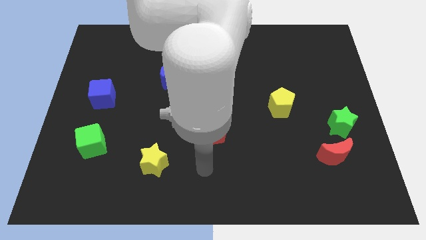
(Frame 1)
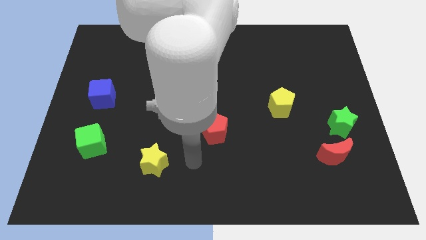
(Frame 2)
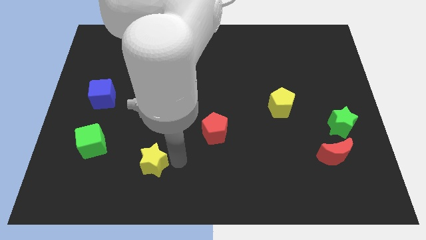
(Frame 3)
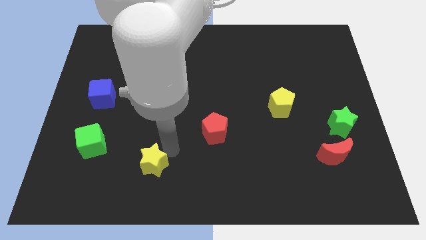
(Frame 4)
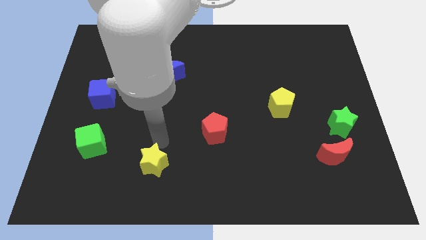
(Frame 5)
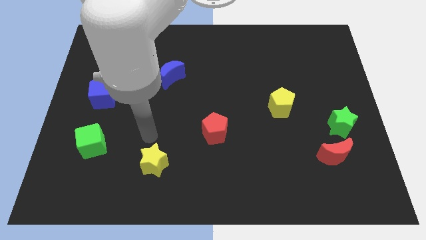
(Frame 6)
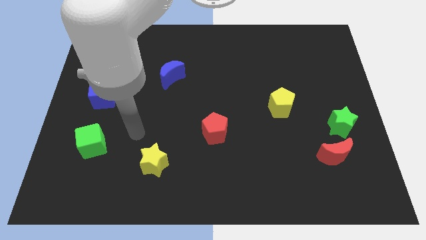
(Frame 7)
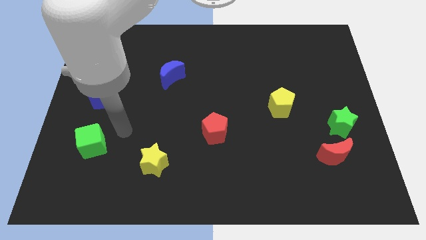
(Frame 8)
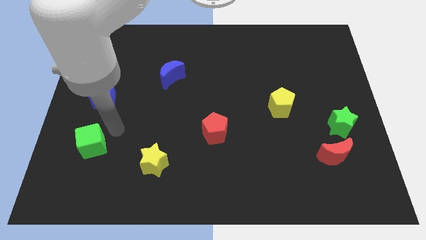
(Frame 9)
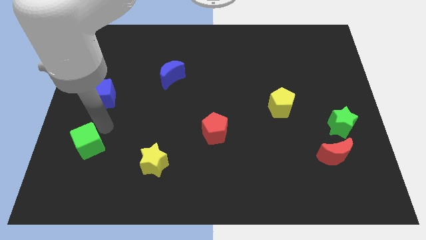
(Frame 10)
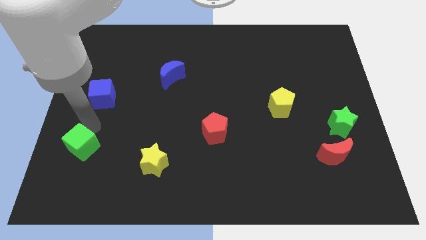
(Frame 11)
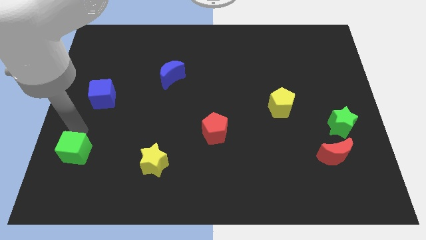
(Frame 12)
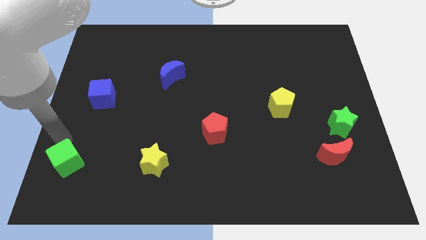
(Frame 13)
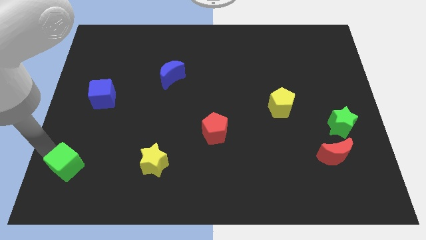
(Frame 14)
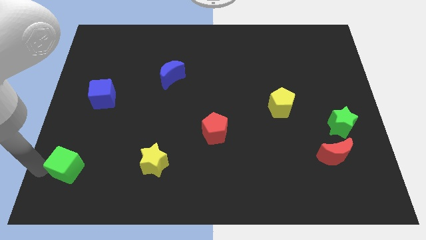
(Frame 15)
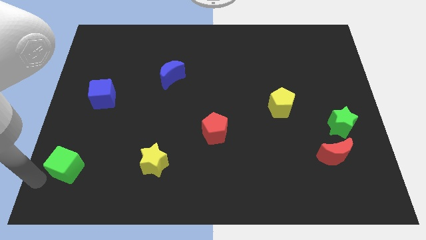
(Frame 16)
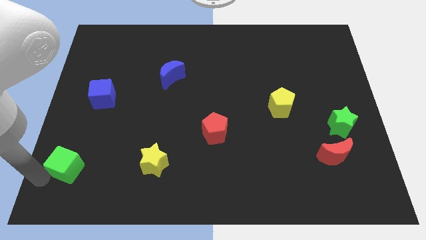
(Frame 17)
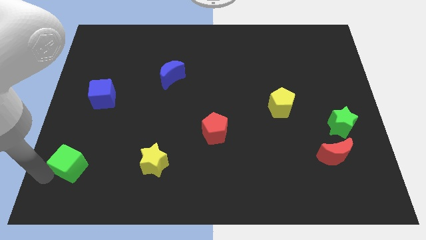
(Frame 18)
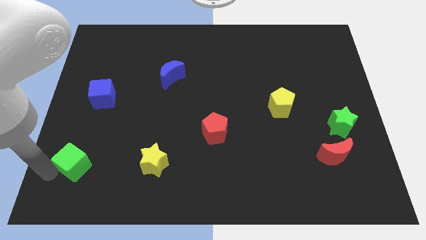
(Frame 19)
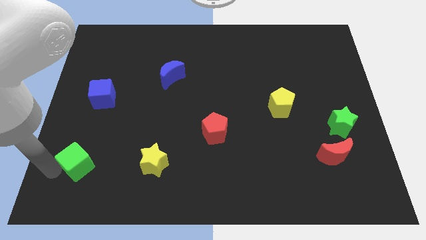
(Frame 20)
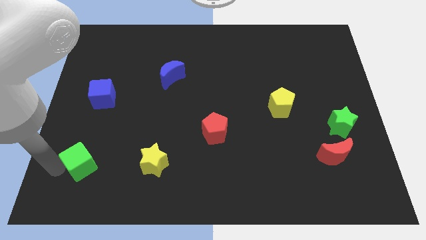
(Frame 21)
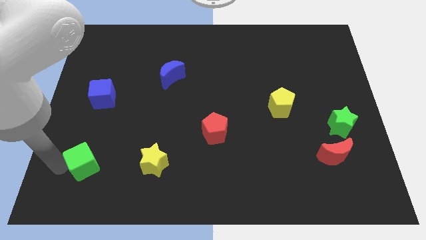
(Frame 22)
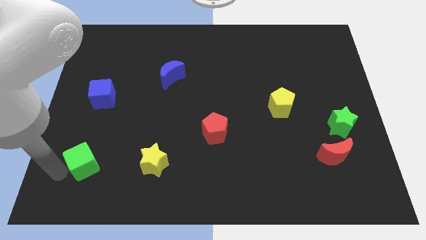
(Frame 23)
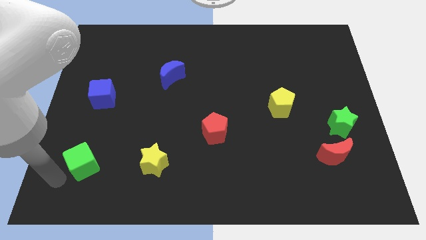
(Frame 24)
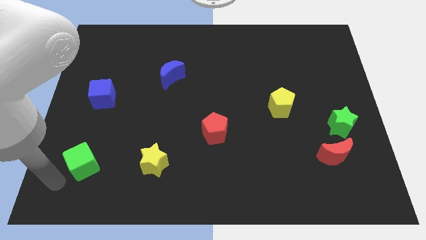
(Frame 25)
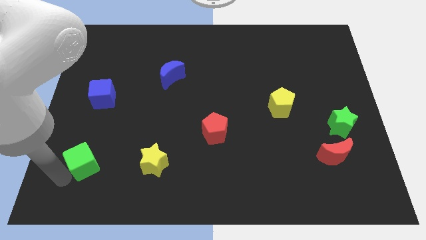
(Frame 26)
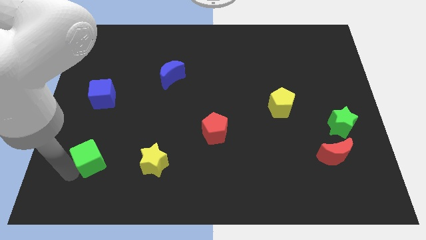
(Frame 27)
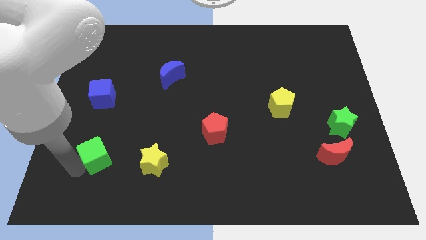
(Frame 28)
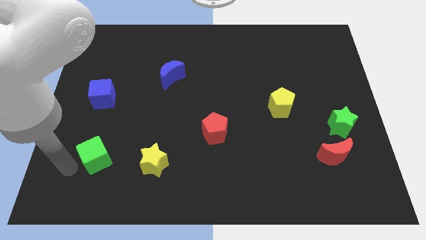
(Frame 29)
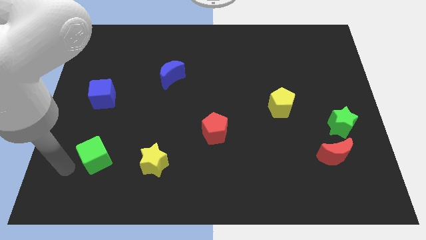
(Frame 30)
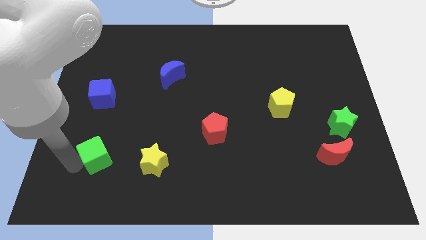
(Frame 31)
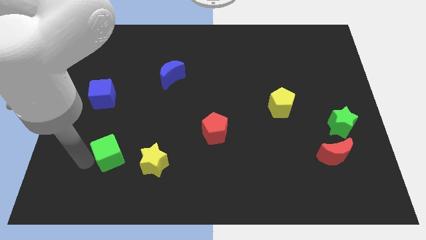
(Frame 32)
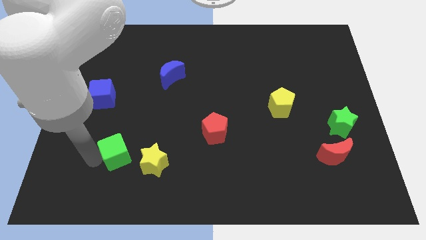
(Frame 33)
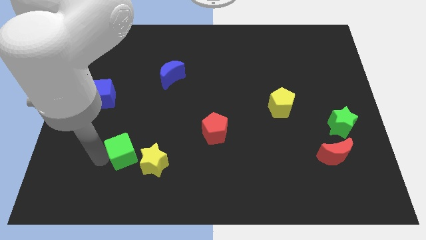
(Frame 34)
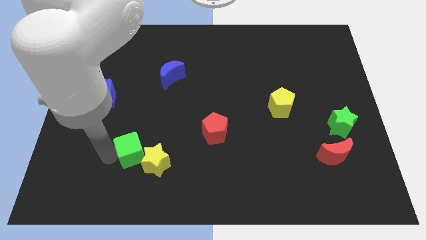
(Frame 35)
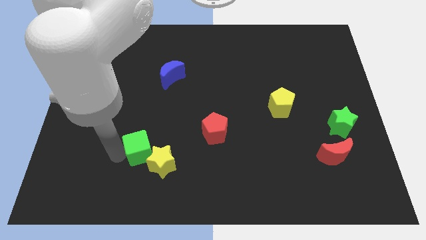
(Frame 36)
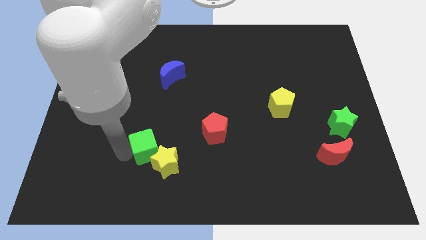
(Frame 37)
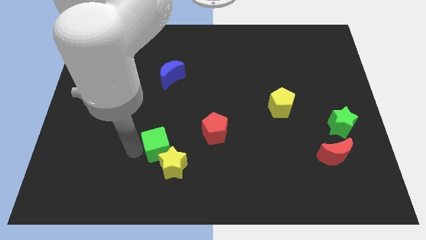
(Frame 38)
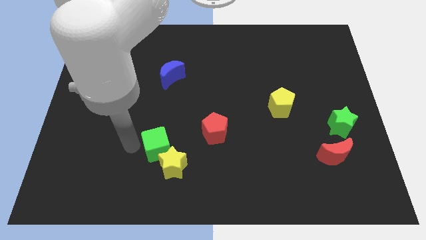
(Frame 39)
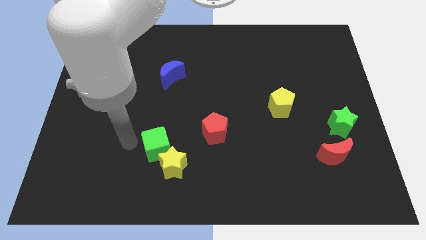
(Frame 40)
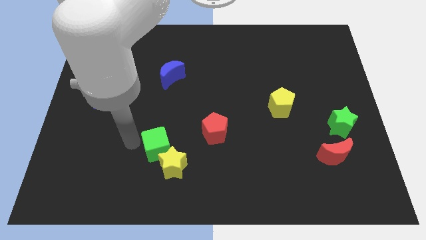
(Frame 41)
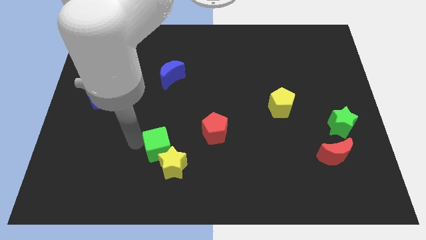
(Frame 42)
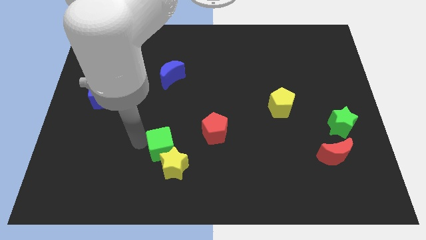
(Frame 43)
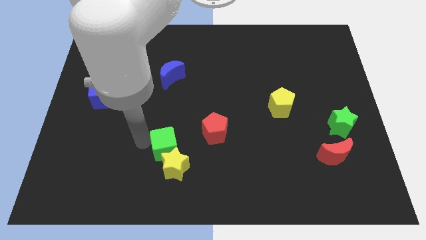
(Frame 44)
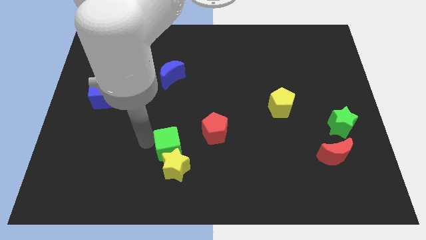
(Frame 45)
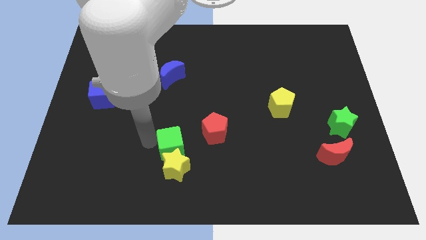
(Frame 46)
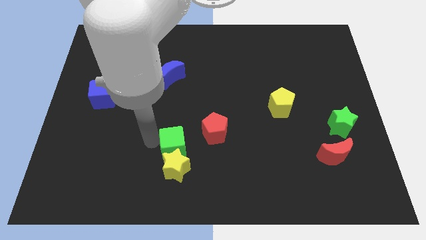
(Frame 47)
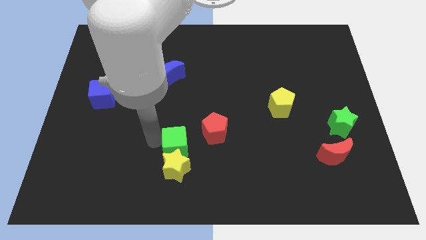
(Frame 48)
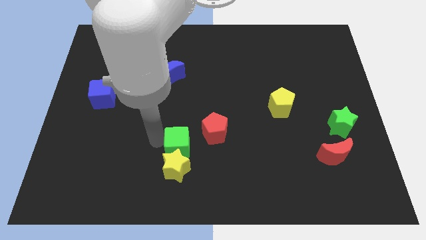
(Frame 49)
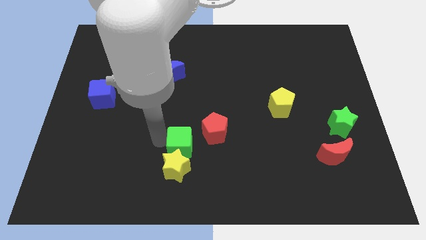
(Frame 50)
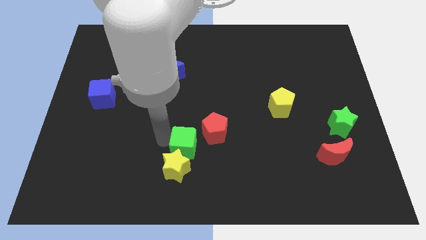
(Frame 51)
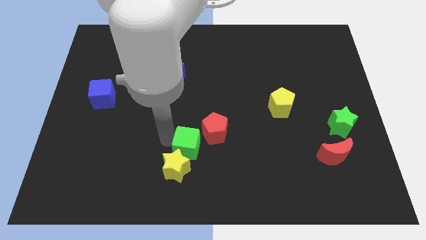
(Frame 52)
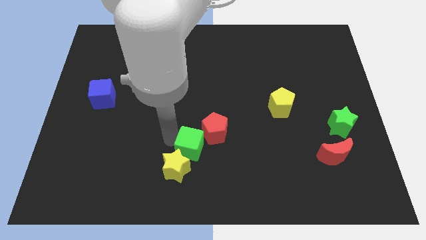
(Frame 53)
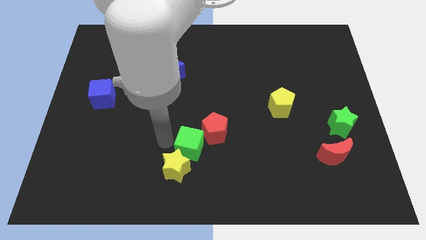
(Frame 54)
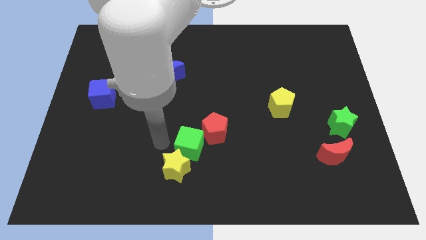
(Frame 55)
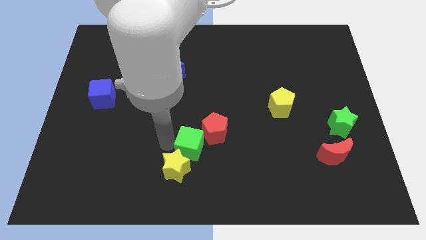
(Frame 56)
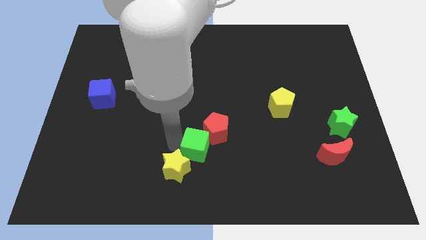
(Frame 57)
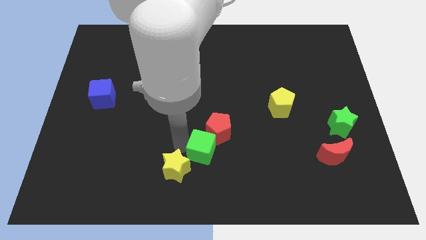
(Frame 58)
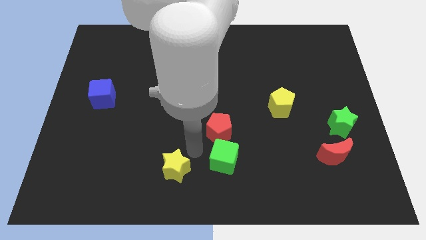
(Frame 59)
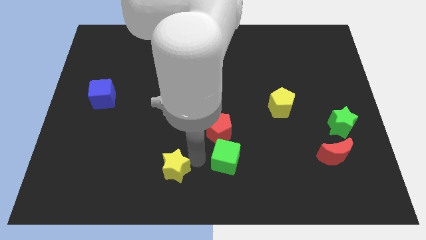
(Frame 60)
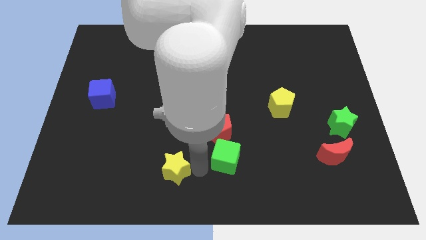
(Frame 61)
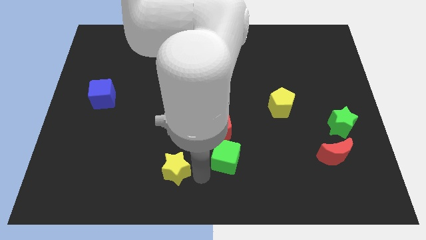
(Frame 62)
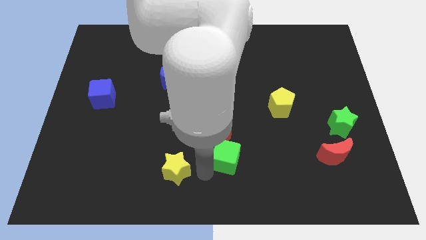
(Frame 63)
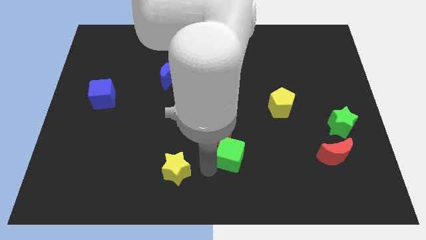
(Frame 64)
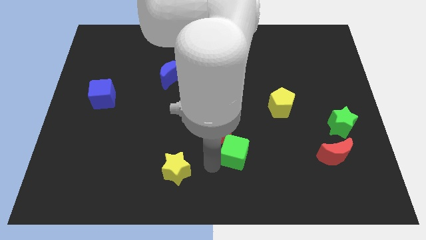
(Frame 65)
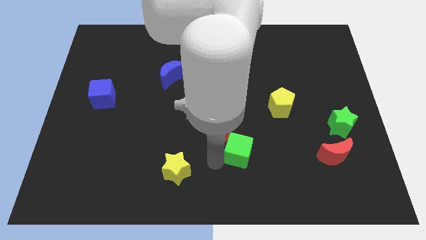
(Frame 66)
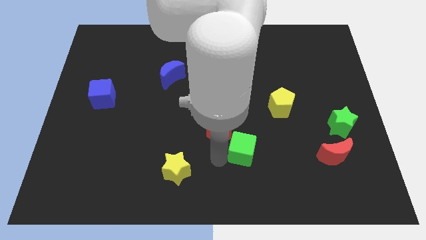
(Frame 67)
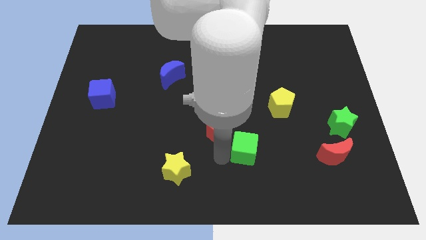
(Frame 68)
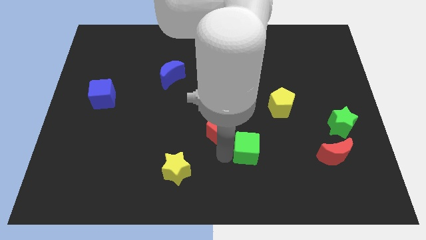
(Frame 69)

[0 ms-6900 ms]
slide the green cube to the right side of the red pentagon
